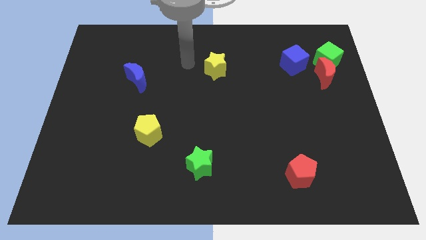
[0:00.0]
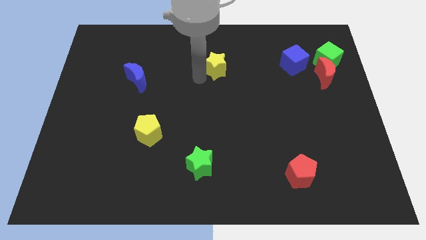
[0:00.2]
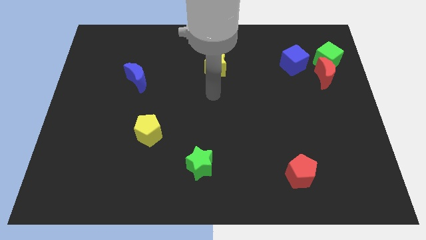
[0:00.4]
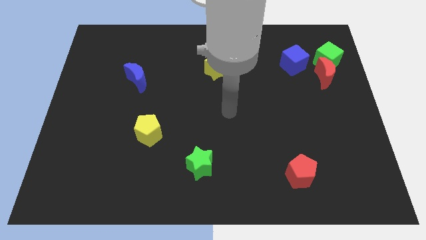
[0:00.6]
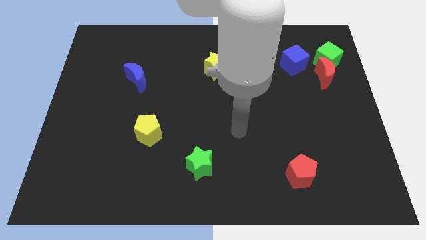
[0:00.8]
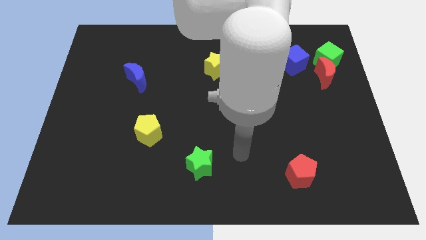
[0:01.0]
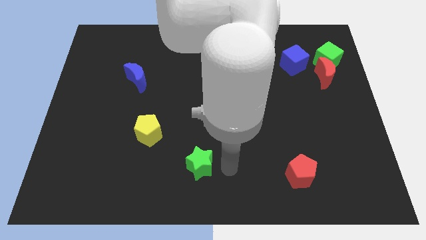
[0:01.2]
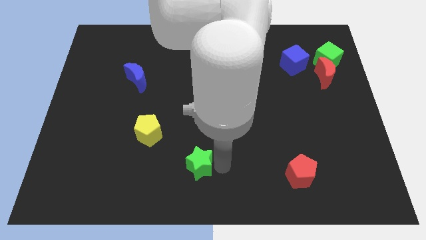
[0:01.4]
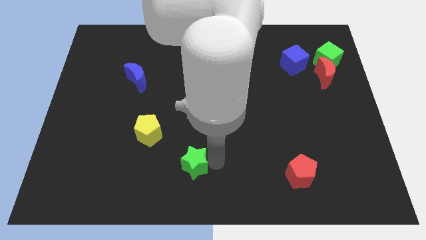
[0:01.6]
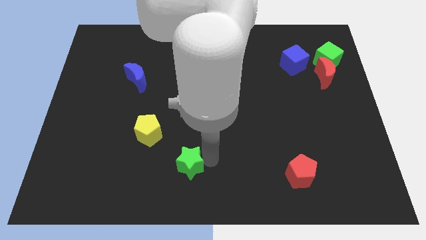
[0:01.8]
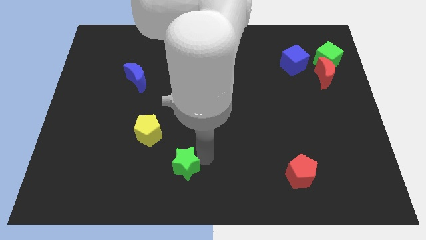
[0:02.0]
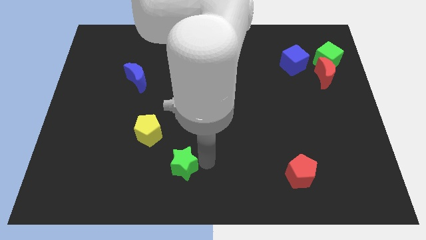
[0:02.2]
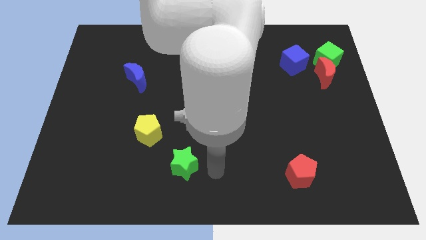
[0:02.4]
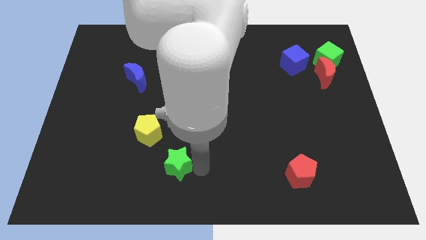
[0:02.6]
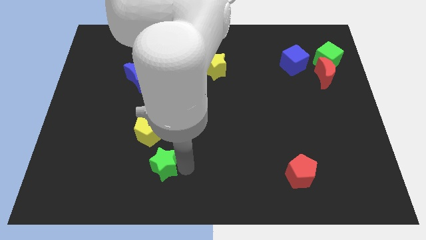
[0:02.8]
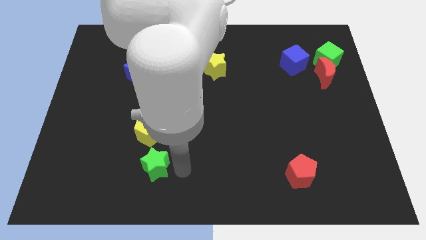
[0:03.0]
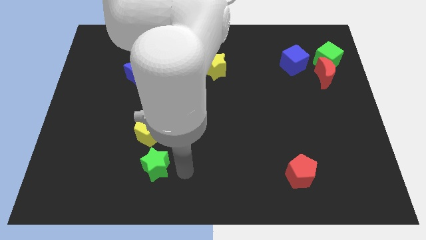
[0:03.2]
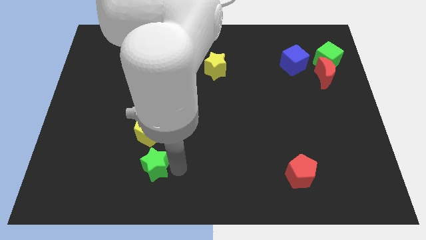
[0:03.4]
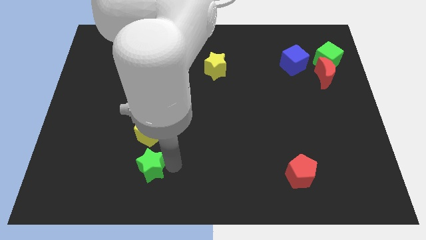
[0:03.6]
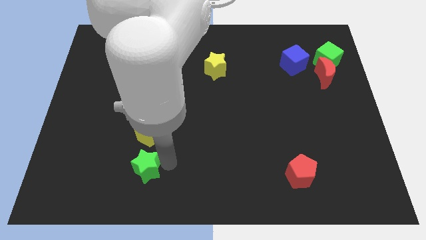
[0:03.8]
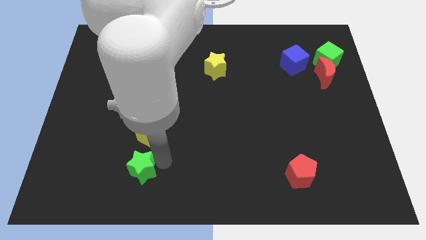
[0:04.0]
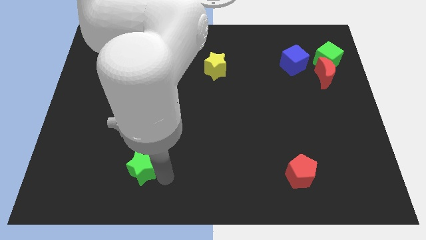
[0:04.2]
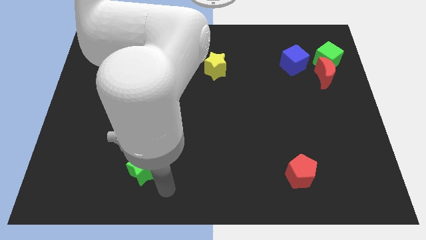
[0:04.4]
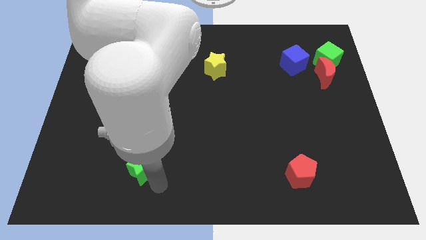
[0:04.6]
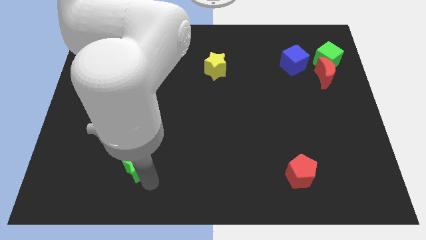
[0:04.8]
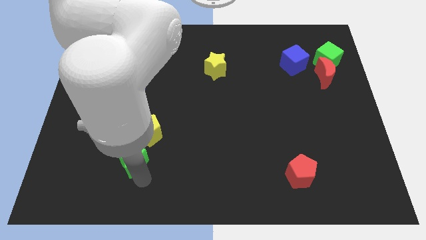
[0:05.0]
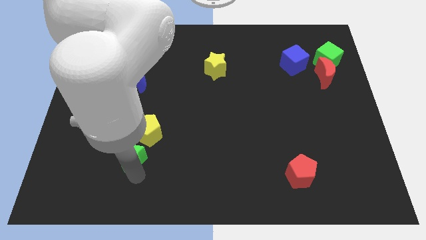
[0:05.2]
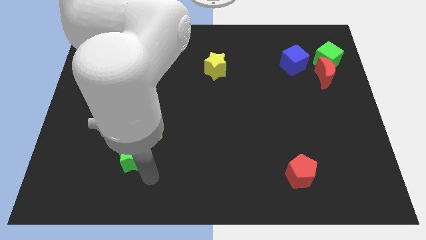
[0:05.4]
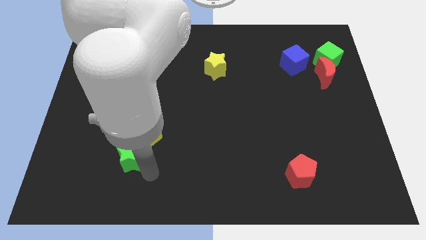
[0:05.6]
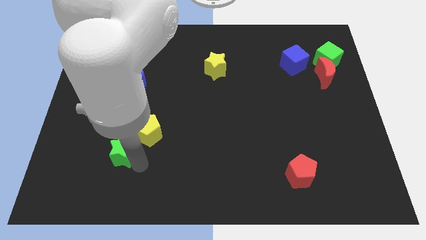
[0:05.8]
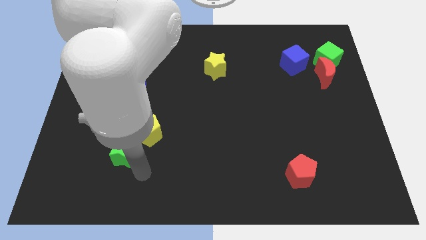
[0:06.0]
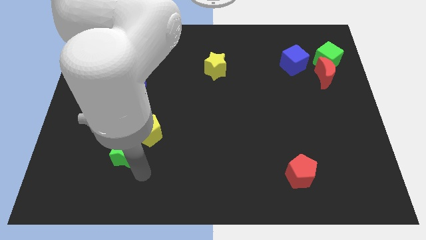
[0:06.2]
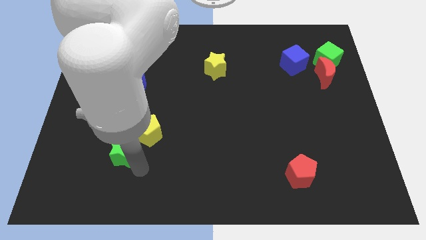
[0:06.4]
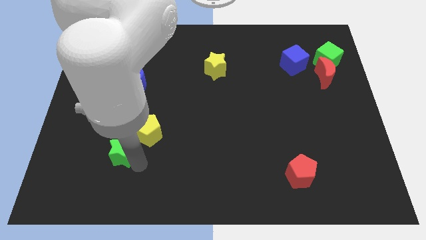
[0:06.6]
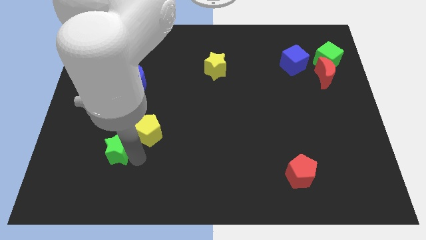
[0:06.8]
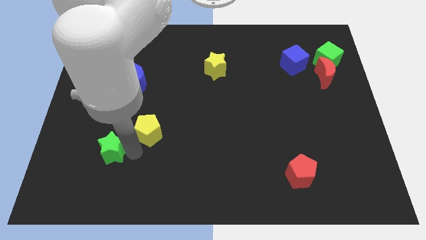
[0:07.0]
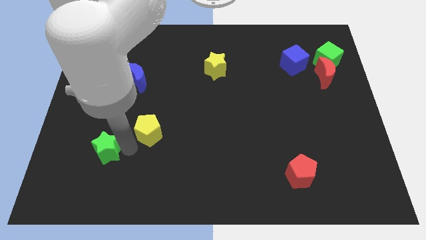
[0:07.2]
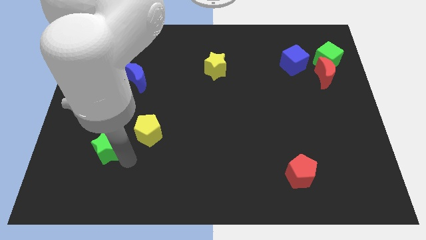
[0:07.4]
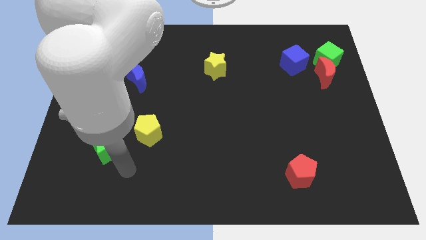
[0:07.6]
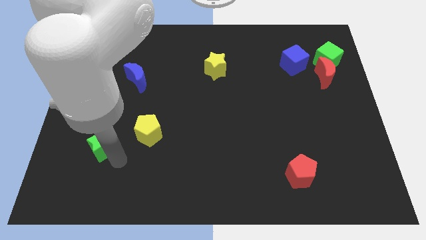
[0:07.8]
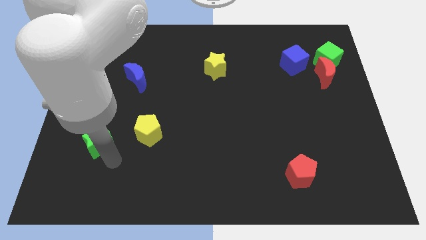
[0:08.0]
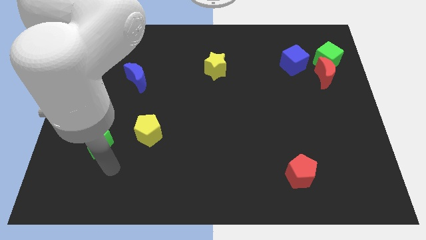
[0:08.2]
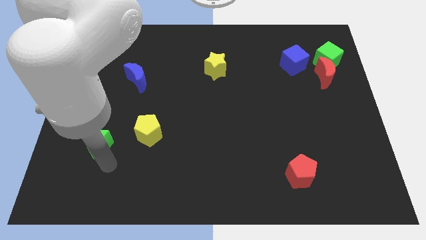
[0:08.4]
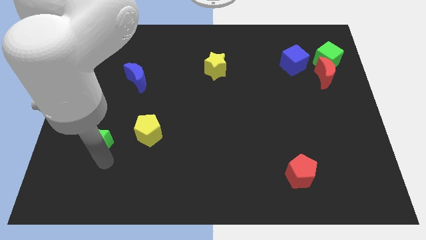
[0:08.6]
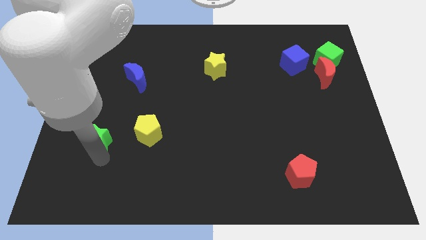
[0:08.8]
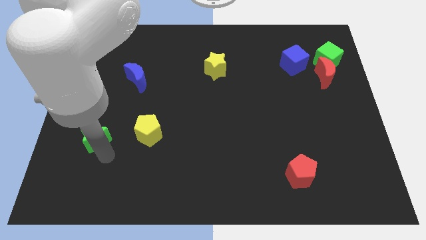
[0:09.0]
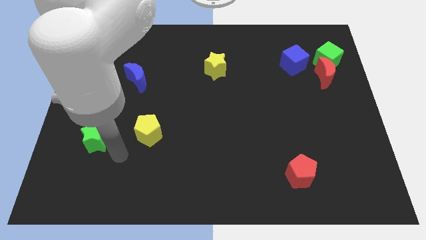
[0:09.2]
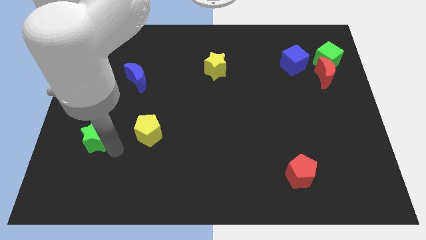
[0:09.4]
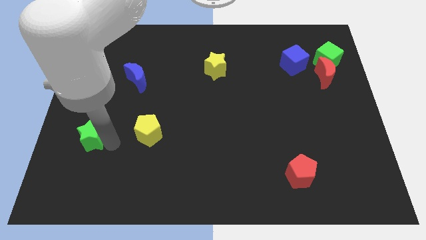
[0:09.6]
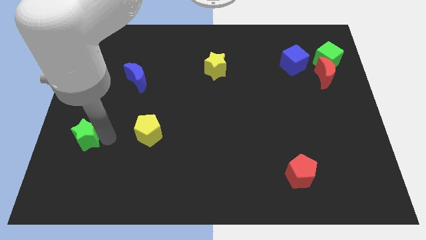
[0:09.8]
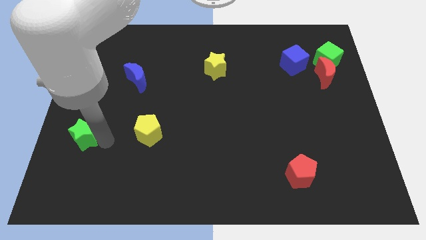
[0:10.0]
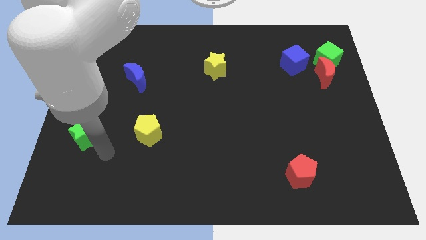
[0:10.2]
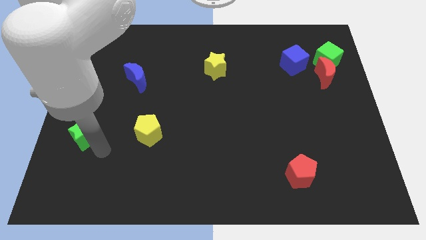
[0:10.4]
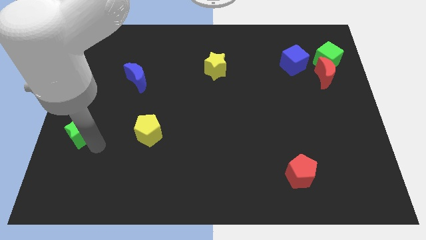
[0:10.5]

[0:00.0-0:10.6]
push the green star to the left side of the board
